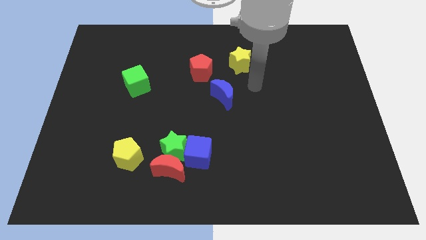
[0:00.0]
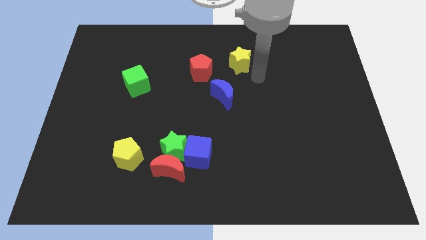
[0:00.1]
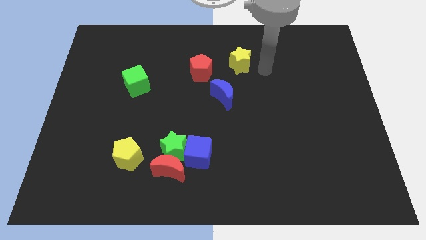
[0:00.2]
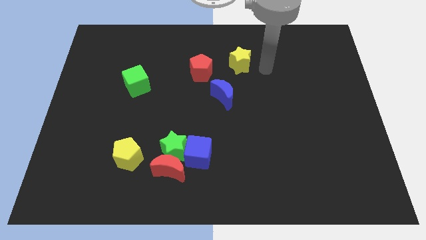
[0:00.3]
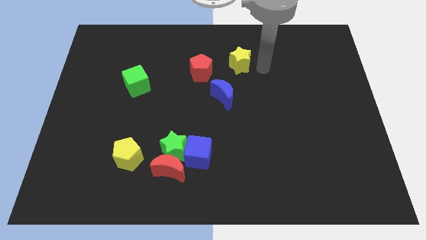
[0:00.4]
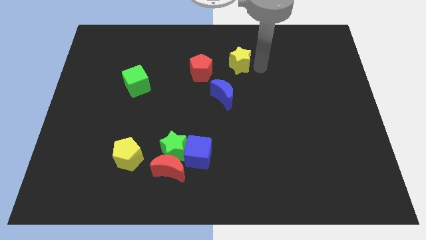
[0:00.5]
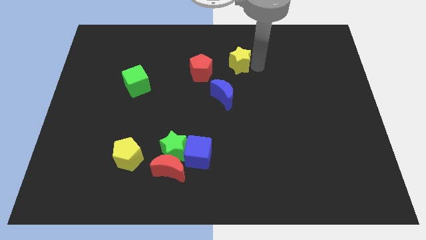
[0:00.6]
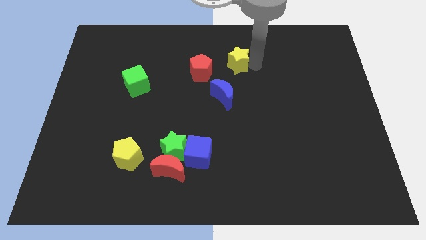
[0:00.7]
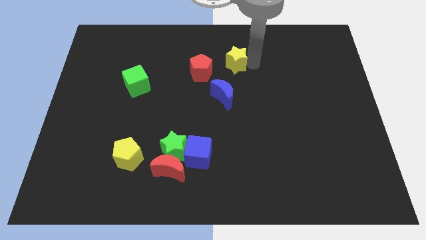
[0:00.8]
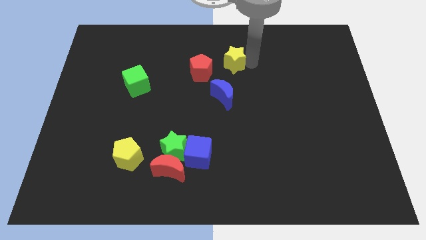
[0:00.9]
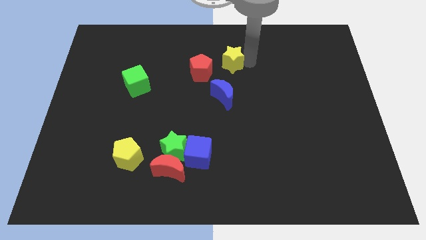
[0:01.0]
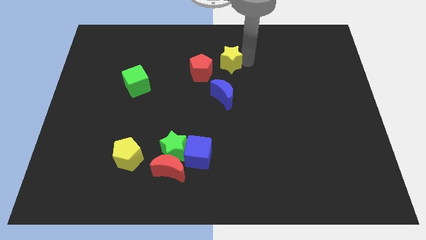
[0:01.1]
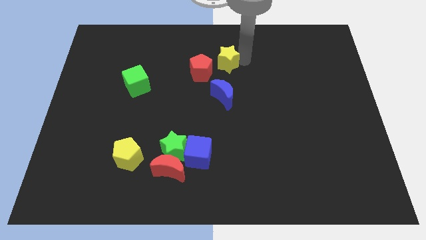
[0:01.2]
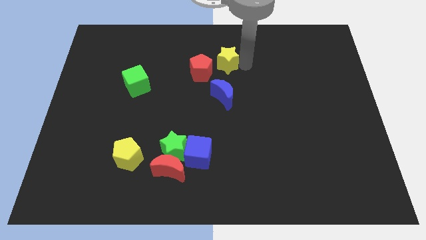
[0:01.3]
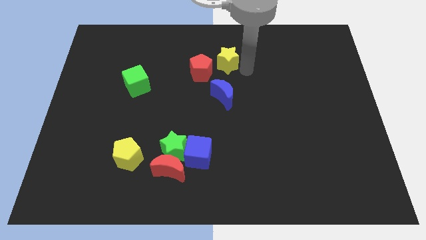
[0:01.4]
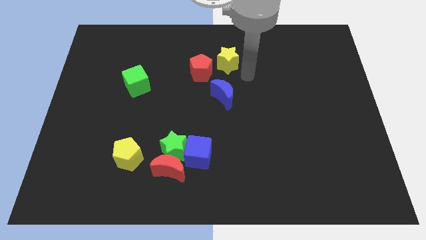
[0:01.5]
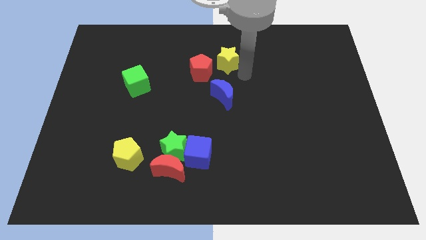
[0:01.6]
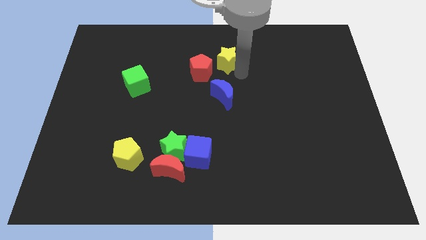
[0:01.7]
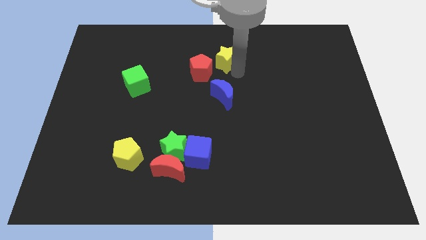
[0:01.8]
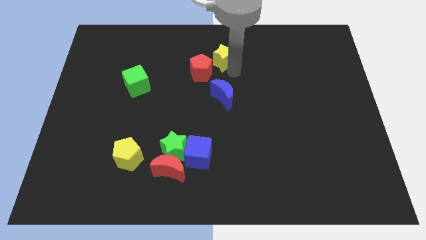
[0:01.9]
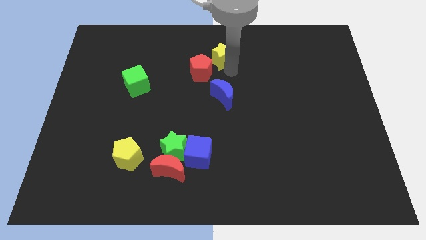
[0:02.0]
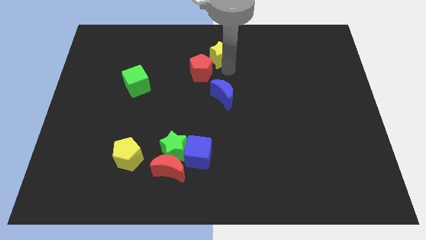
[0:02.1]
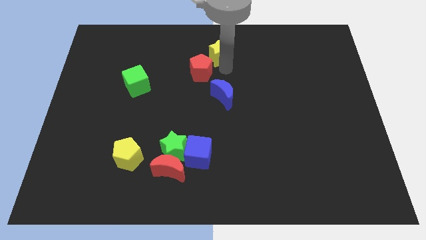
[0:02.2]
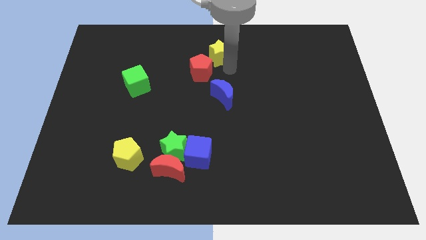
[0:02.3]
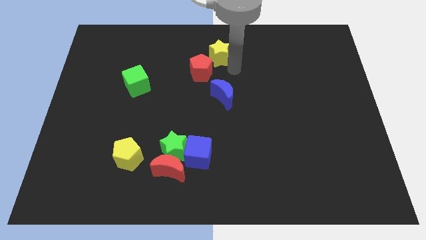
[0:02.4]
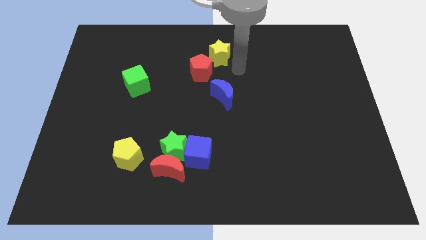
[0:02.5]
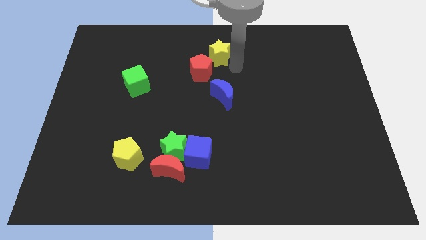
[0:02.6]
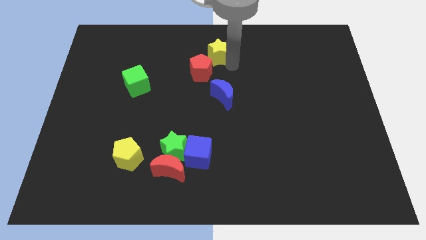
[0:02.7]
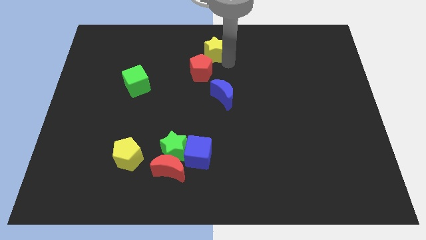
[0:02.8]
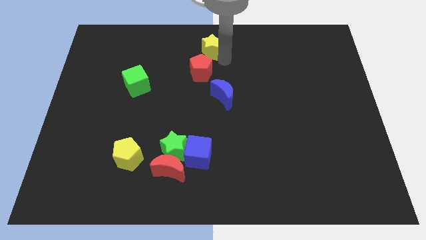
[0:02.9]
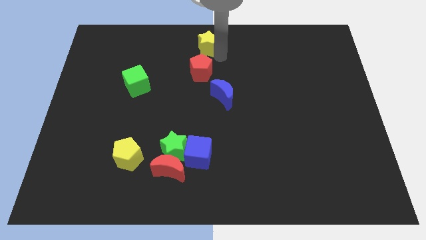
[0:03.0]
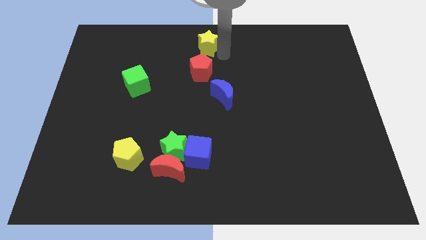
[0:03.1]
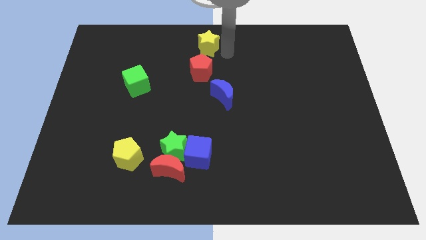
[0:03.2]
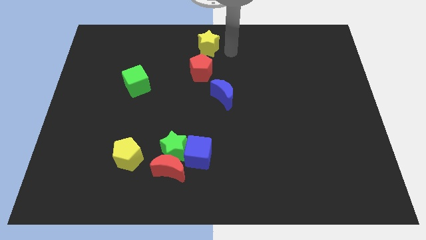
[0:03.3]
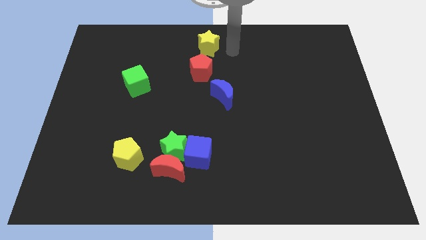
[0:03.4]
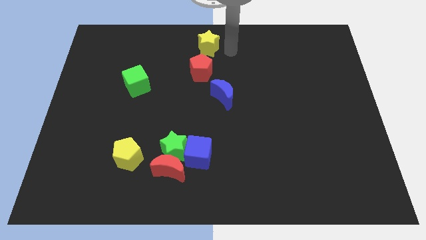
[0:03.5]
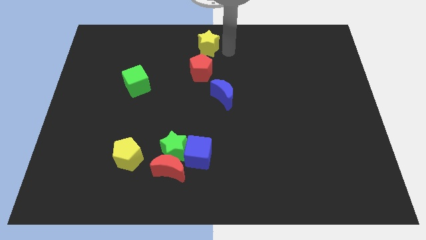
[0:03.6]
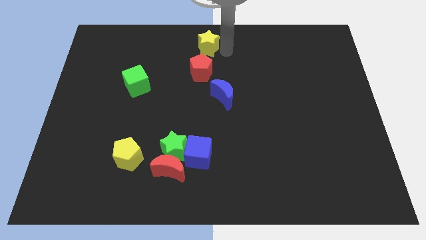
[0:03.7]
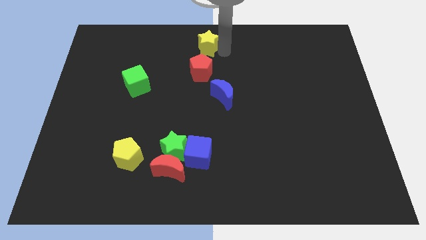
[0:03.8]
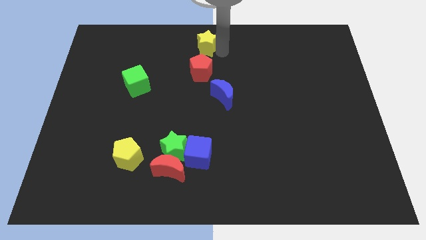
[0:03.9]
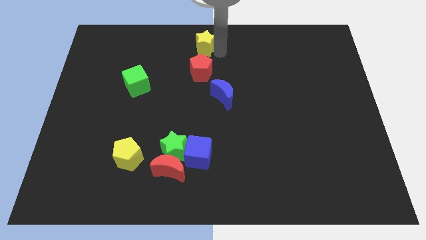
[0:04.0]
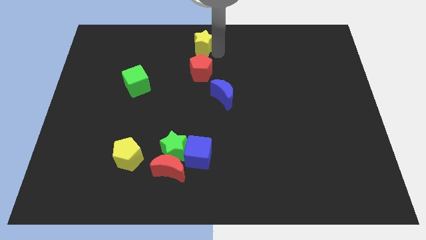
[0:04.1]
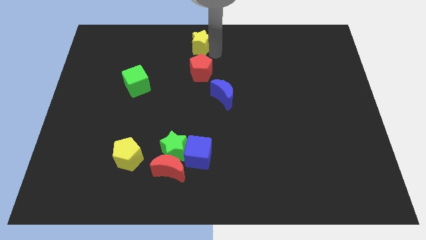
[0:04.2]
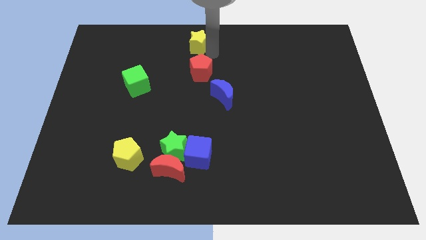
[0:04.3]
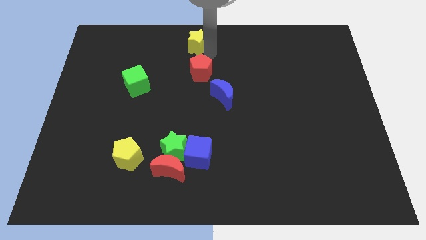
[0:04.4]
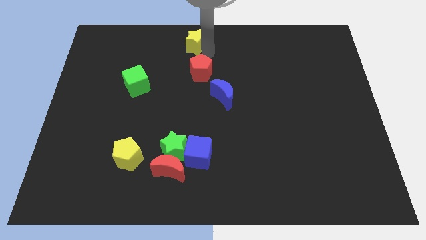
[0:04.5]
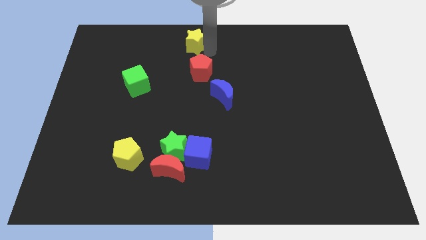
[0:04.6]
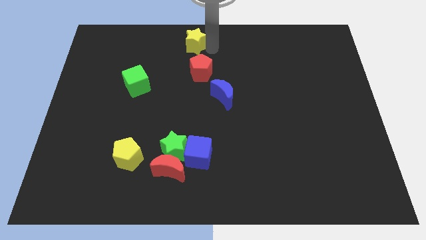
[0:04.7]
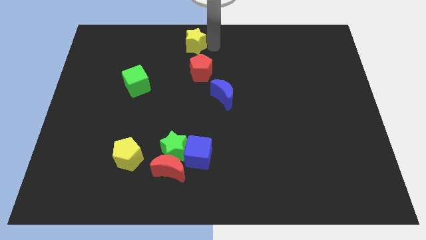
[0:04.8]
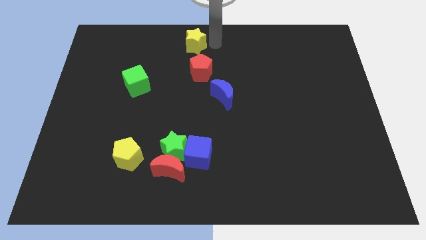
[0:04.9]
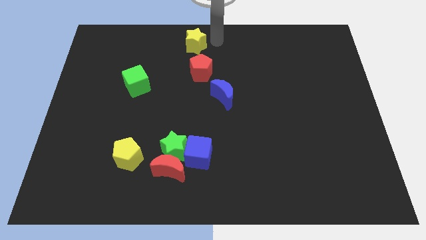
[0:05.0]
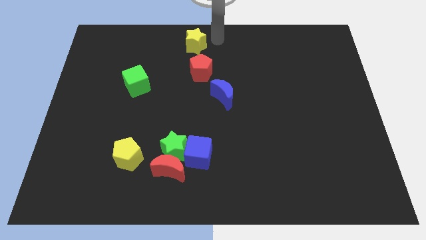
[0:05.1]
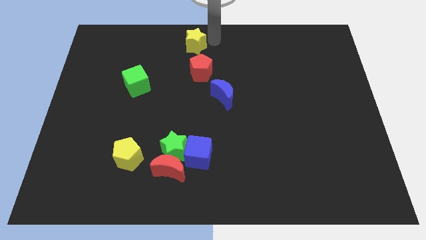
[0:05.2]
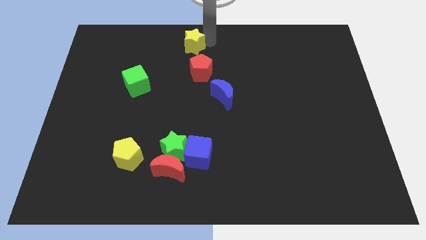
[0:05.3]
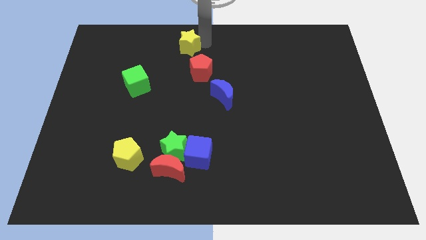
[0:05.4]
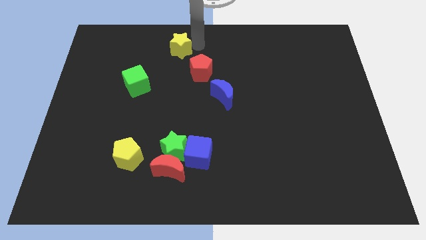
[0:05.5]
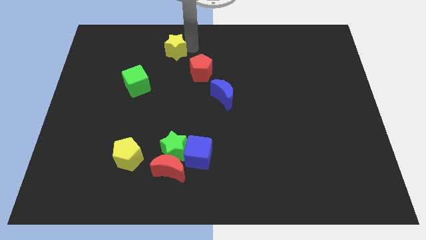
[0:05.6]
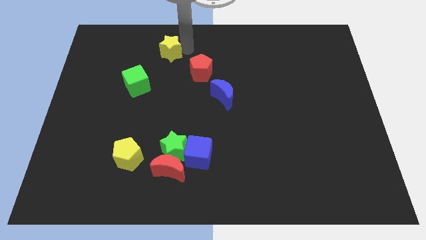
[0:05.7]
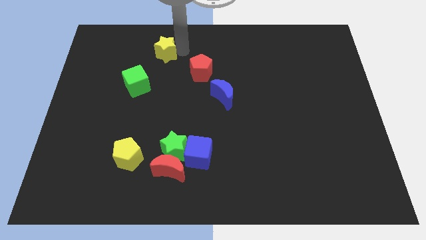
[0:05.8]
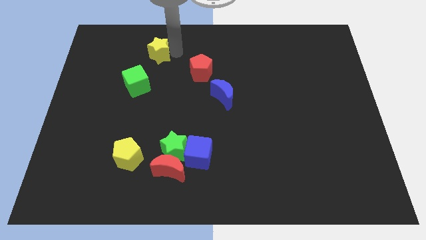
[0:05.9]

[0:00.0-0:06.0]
move the yellow star above the green cube

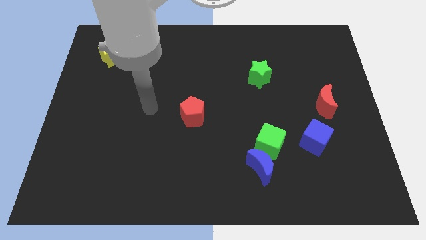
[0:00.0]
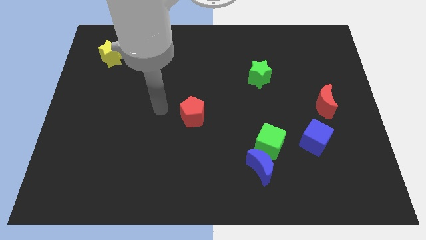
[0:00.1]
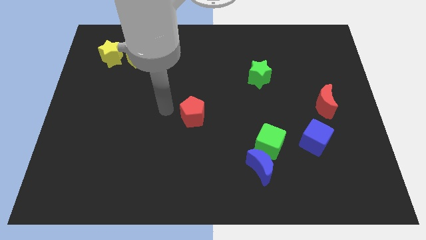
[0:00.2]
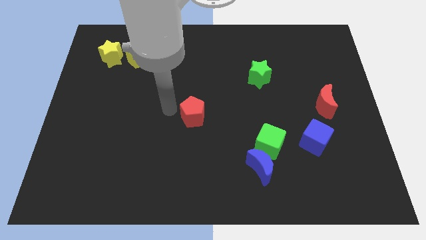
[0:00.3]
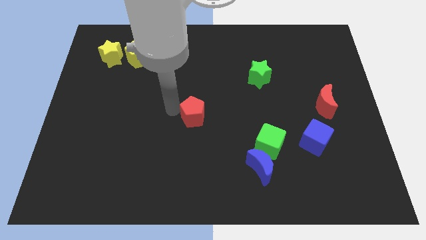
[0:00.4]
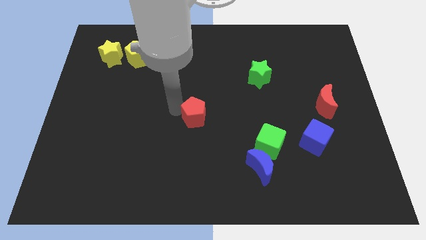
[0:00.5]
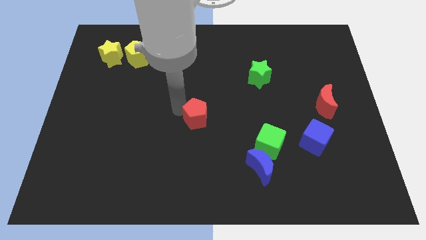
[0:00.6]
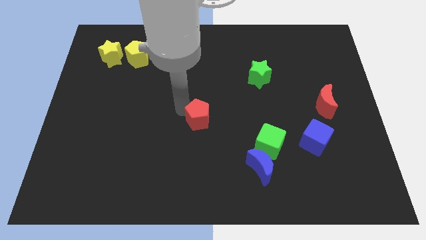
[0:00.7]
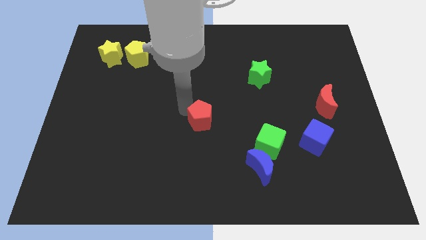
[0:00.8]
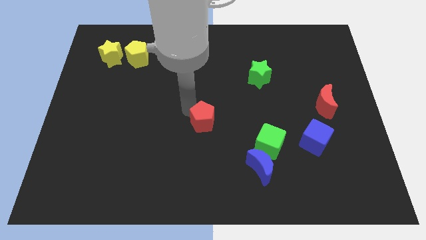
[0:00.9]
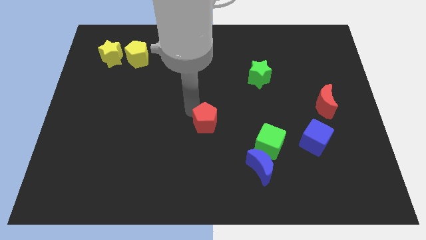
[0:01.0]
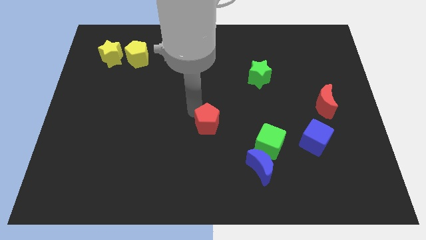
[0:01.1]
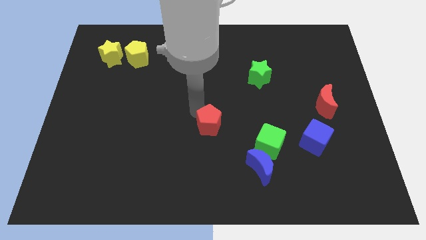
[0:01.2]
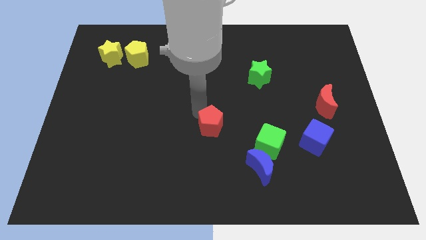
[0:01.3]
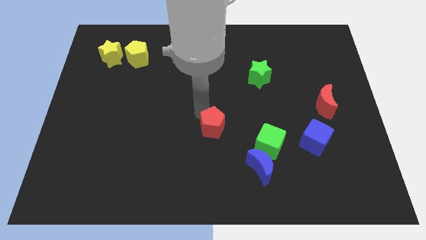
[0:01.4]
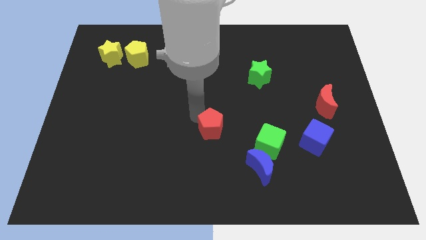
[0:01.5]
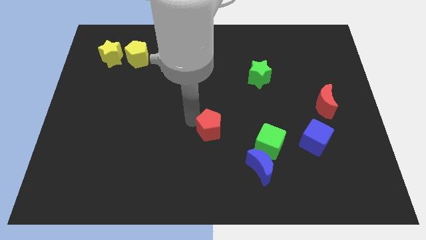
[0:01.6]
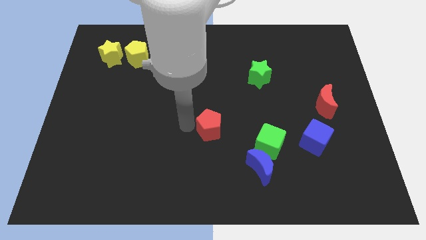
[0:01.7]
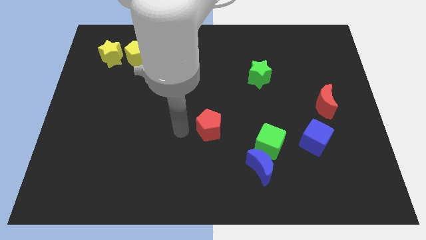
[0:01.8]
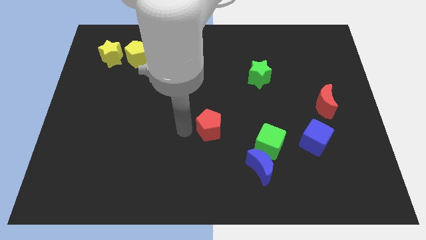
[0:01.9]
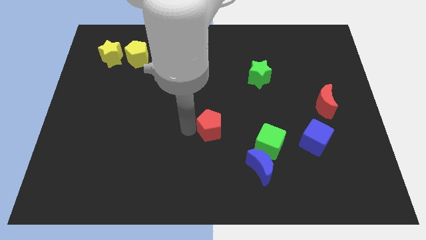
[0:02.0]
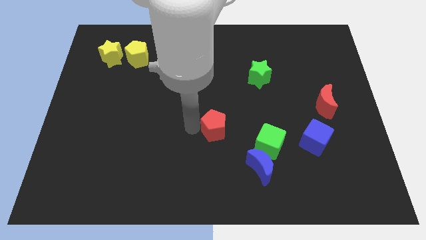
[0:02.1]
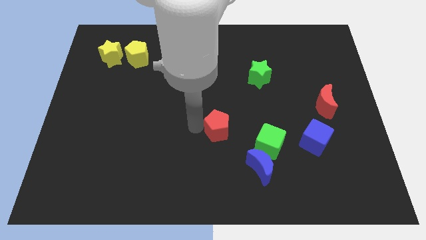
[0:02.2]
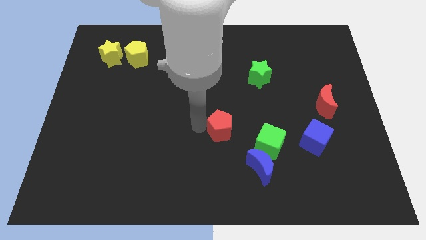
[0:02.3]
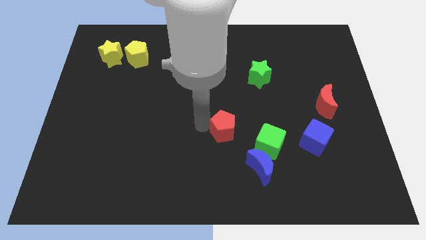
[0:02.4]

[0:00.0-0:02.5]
move the red pentagon to the top left side of the green cube
